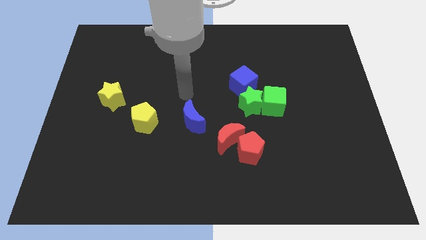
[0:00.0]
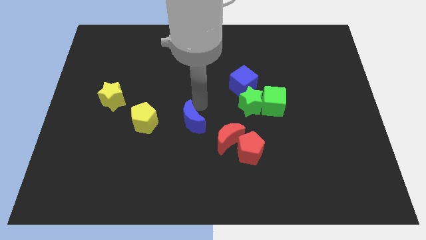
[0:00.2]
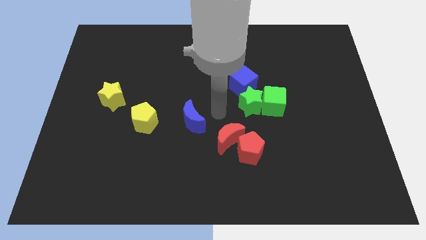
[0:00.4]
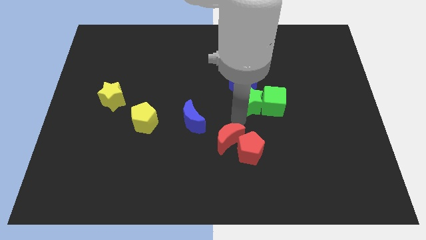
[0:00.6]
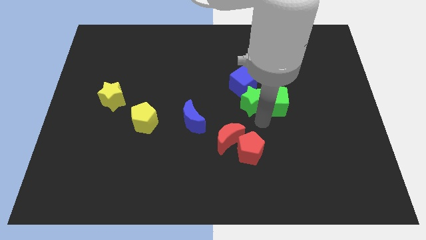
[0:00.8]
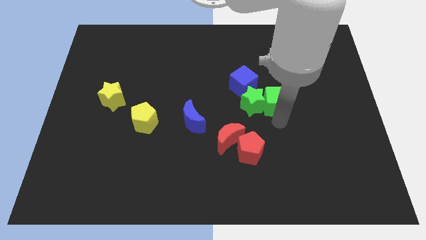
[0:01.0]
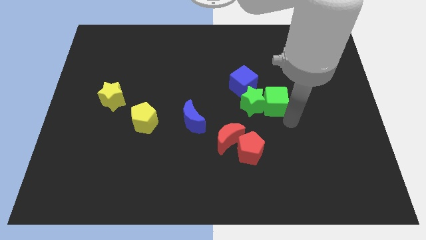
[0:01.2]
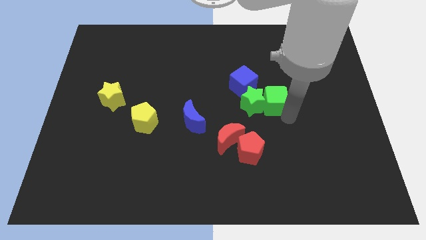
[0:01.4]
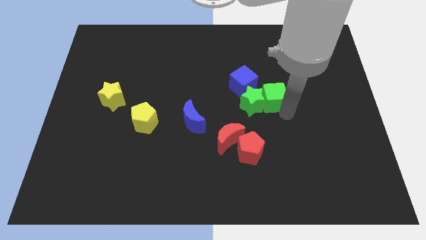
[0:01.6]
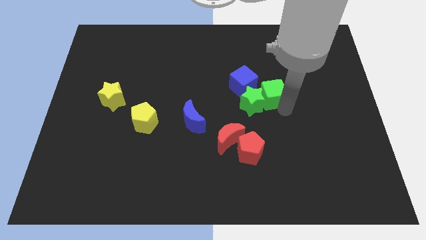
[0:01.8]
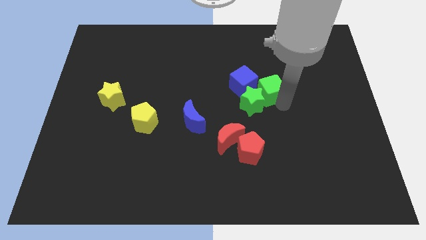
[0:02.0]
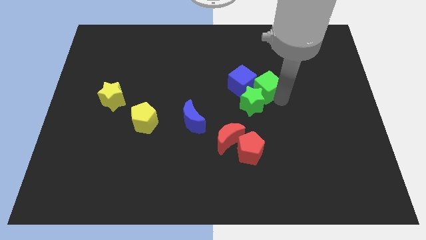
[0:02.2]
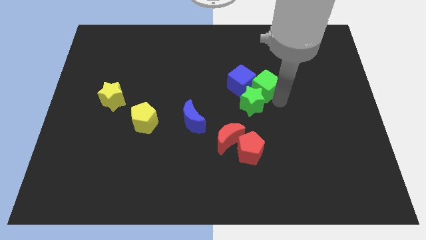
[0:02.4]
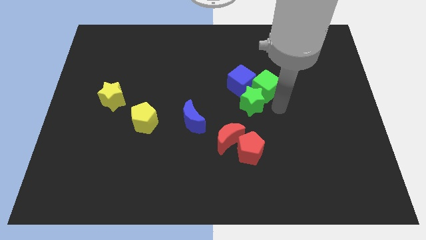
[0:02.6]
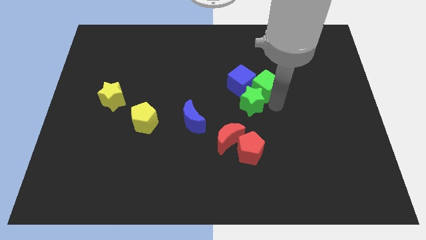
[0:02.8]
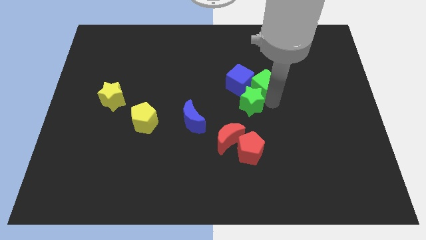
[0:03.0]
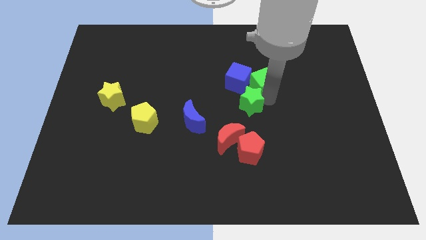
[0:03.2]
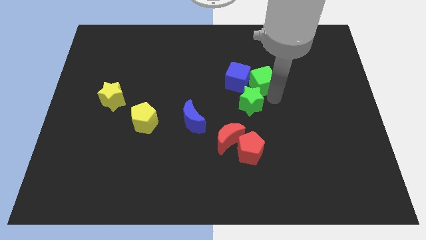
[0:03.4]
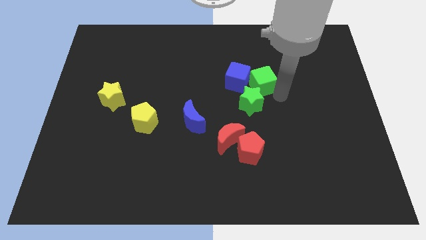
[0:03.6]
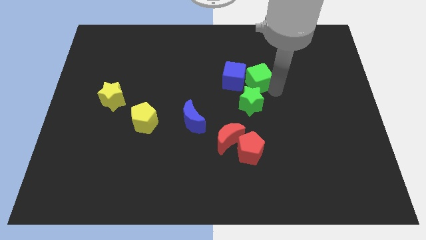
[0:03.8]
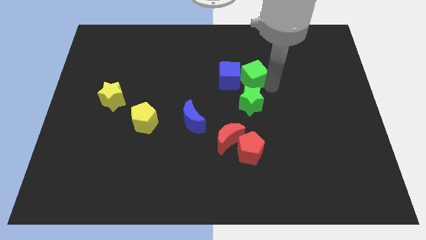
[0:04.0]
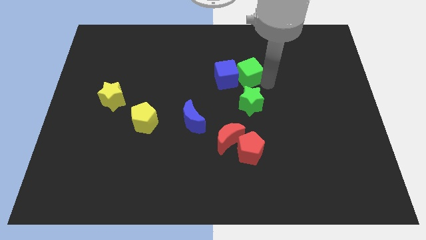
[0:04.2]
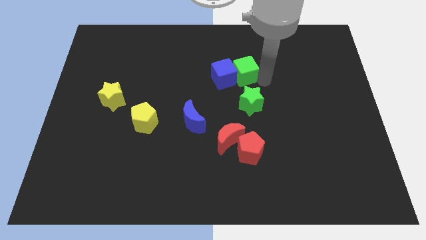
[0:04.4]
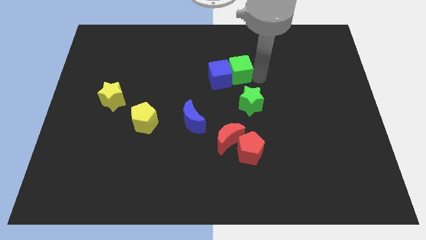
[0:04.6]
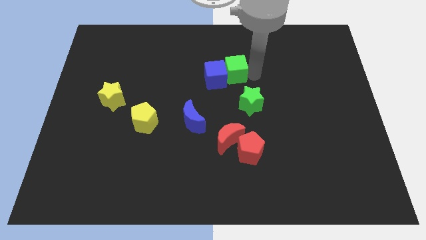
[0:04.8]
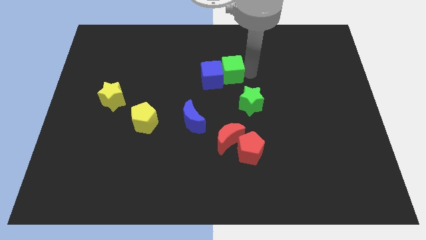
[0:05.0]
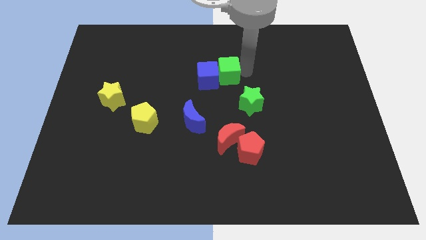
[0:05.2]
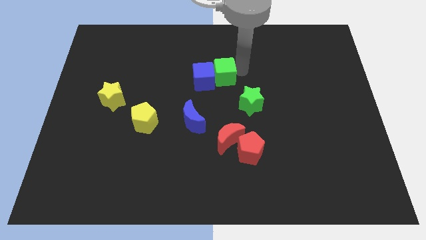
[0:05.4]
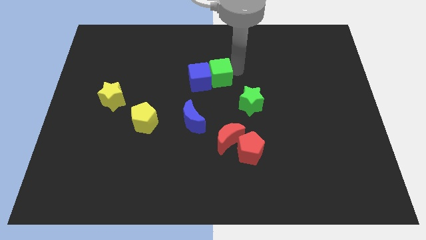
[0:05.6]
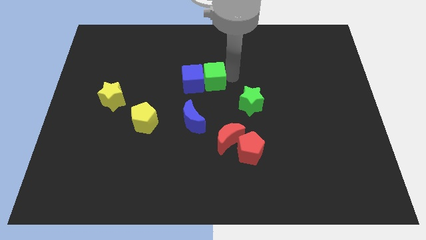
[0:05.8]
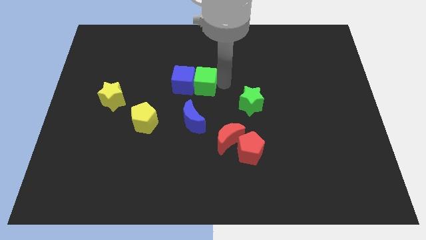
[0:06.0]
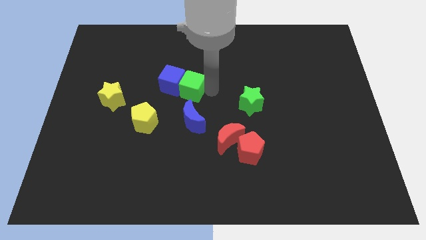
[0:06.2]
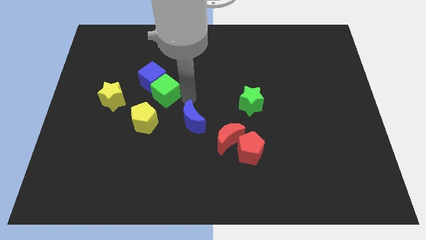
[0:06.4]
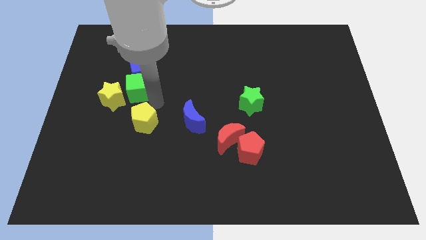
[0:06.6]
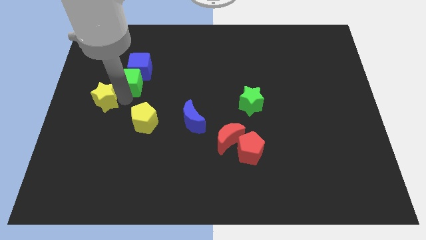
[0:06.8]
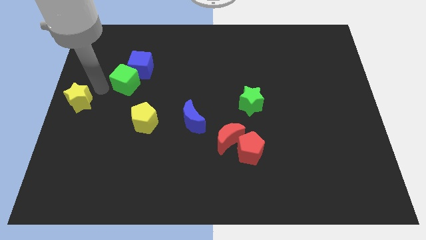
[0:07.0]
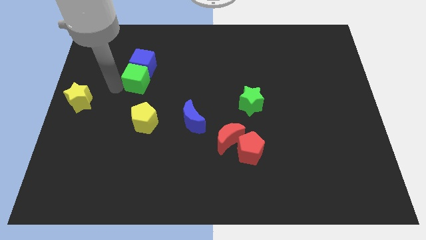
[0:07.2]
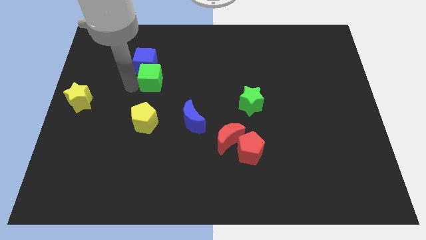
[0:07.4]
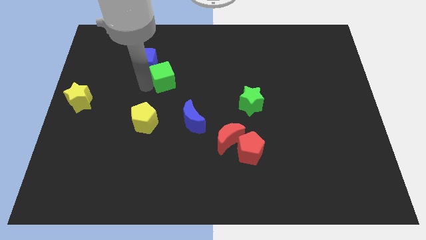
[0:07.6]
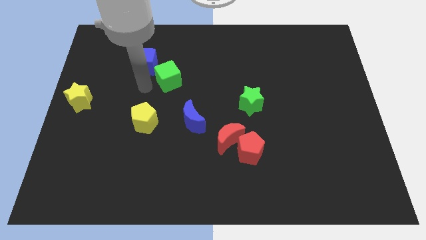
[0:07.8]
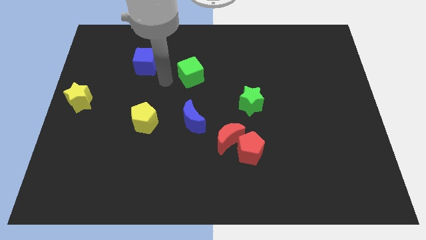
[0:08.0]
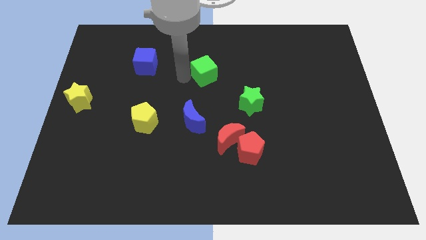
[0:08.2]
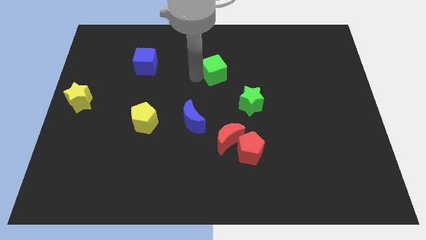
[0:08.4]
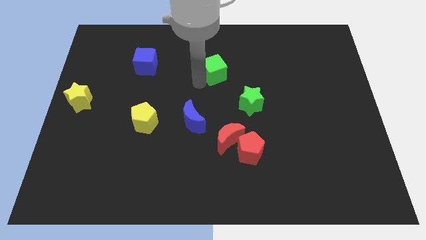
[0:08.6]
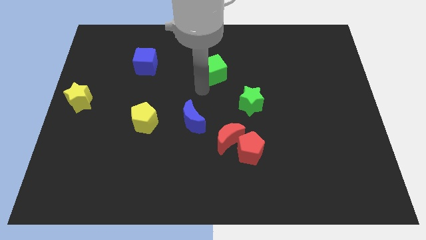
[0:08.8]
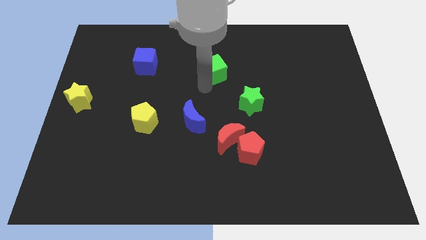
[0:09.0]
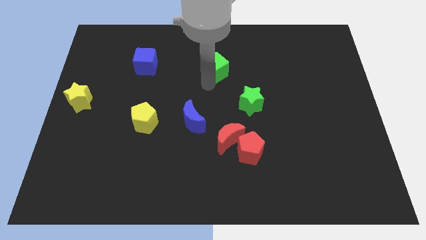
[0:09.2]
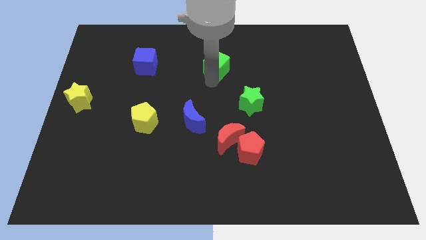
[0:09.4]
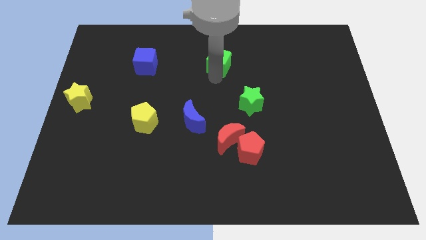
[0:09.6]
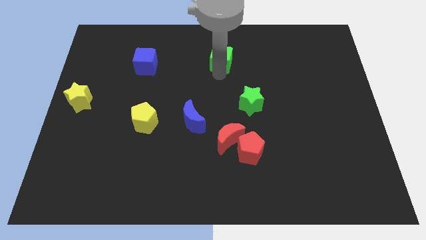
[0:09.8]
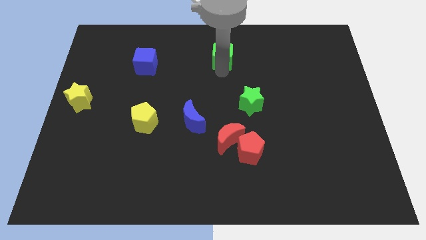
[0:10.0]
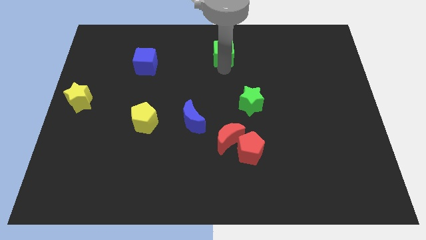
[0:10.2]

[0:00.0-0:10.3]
put the green cube to the top

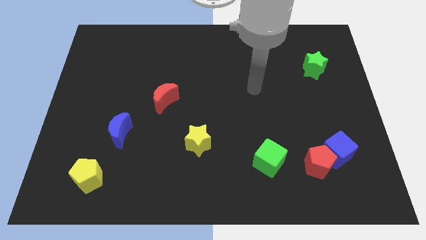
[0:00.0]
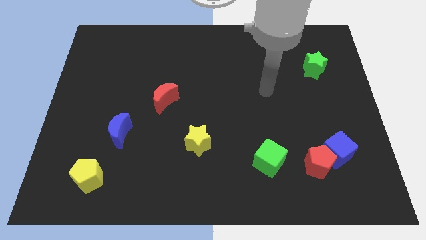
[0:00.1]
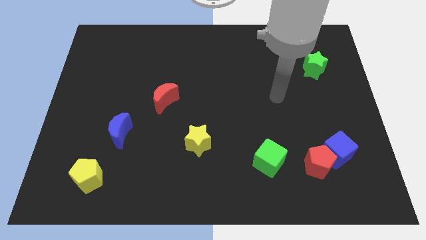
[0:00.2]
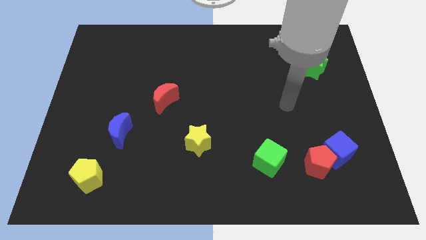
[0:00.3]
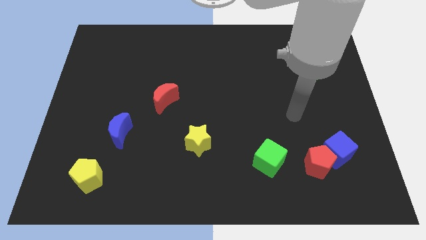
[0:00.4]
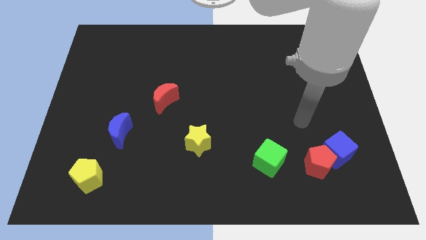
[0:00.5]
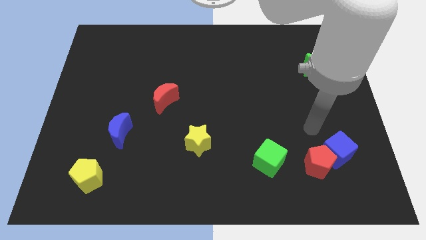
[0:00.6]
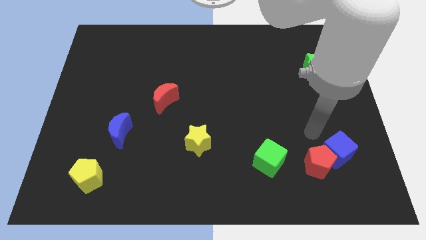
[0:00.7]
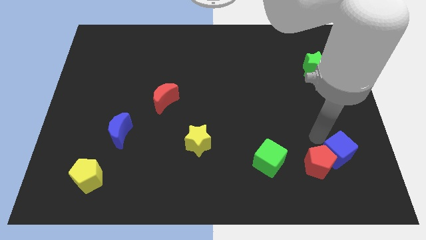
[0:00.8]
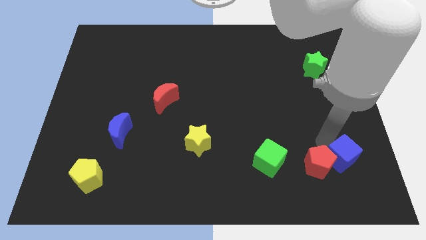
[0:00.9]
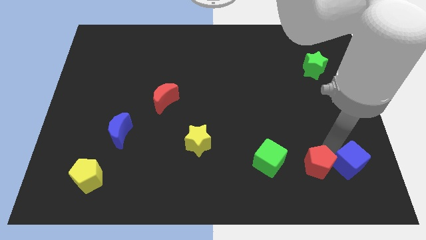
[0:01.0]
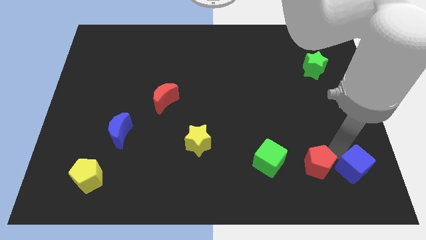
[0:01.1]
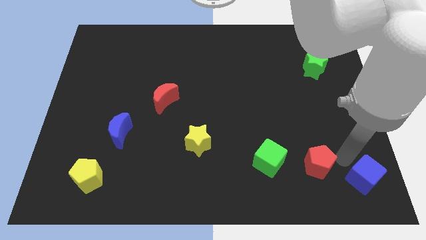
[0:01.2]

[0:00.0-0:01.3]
push the blue cube to the lower right corner
